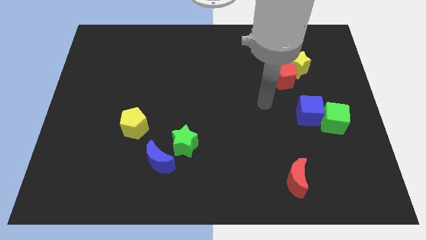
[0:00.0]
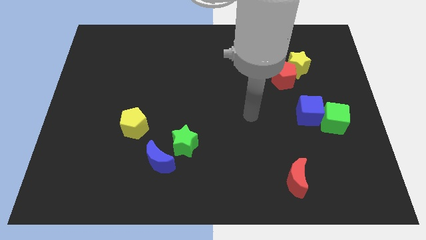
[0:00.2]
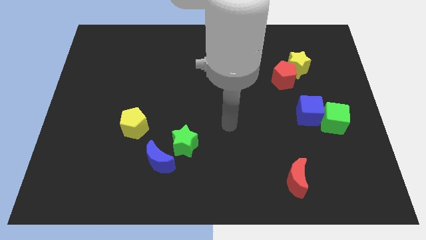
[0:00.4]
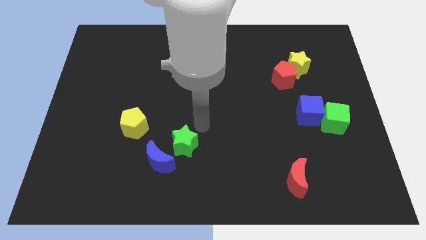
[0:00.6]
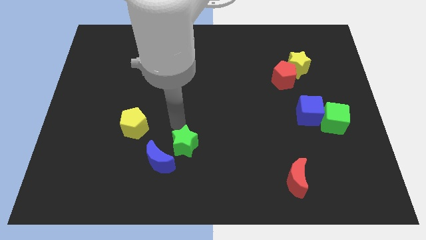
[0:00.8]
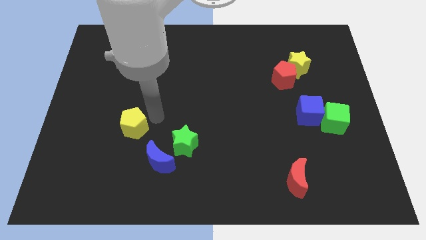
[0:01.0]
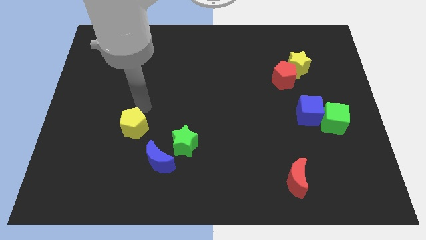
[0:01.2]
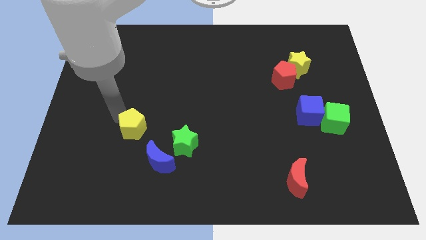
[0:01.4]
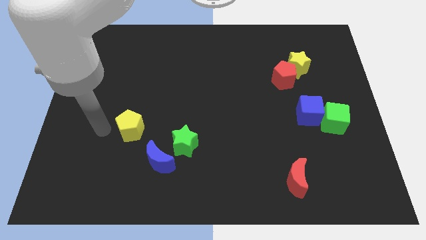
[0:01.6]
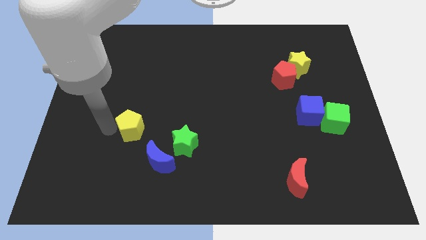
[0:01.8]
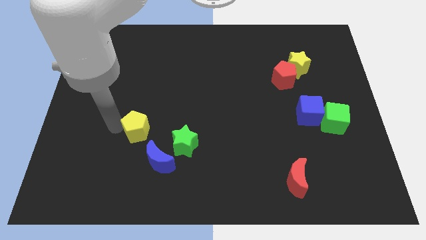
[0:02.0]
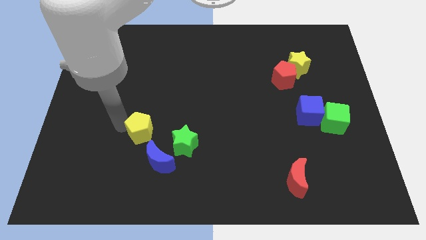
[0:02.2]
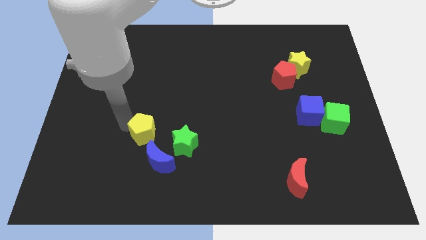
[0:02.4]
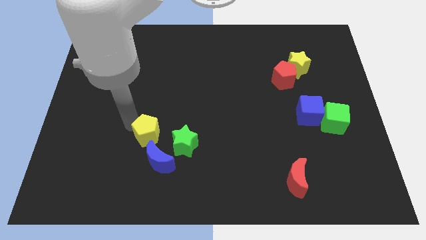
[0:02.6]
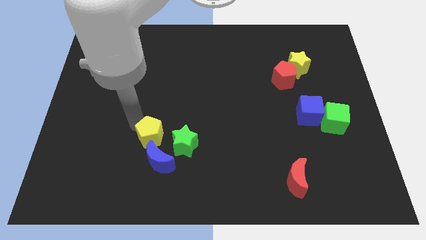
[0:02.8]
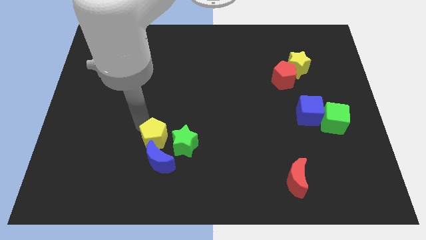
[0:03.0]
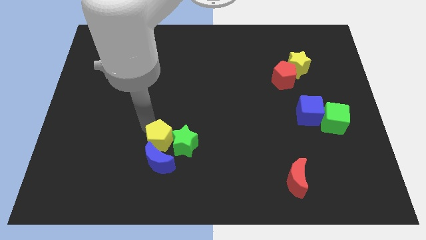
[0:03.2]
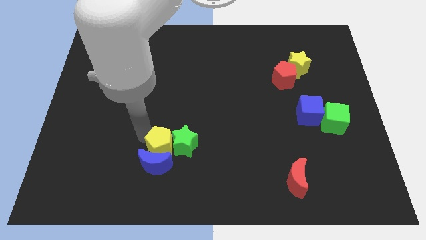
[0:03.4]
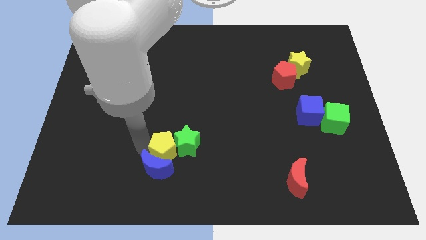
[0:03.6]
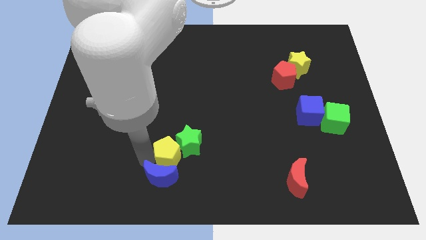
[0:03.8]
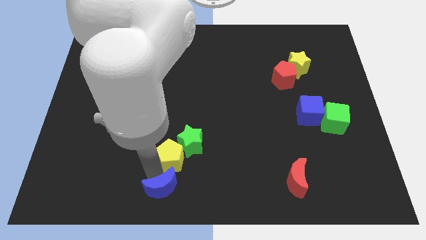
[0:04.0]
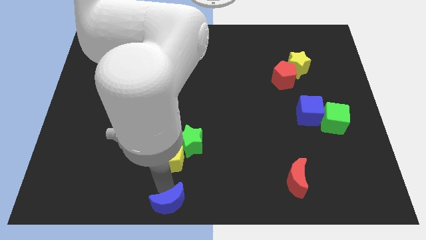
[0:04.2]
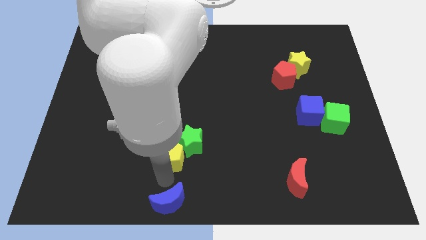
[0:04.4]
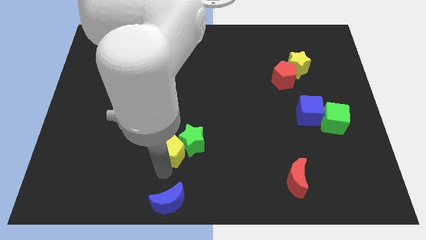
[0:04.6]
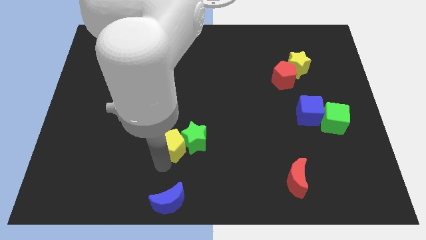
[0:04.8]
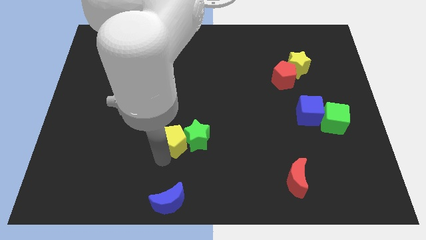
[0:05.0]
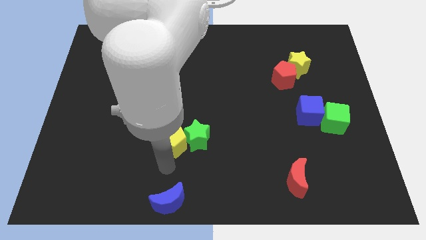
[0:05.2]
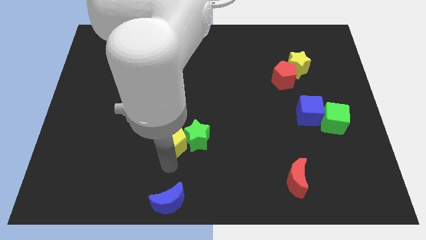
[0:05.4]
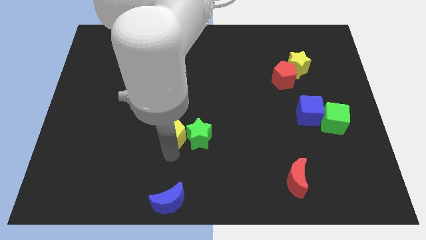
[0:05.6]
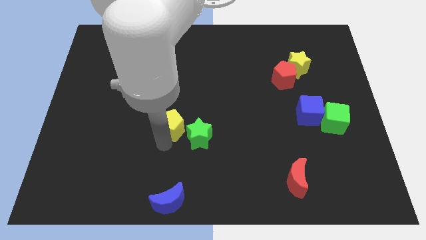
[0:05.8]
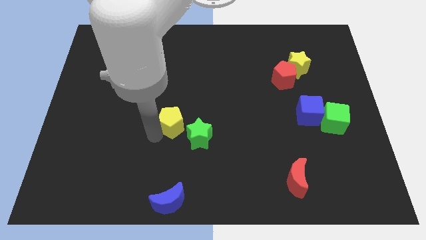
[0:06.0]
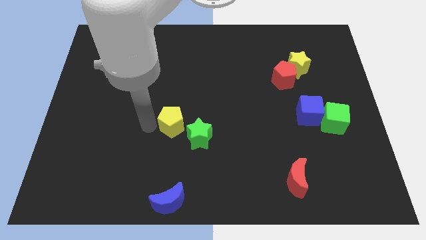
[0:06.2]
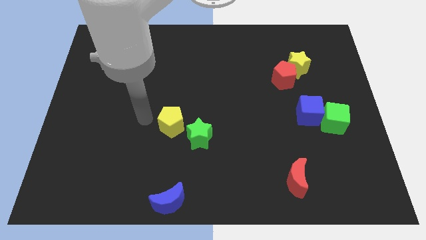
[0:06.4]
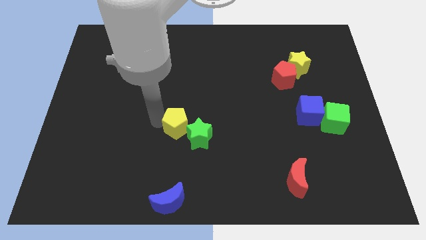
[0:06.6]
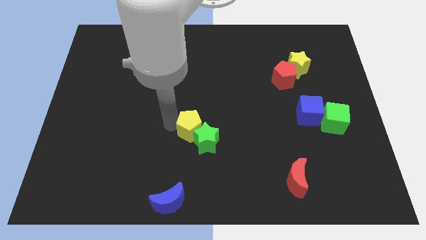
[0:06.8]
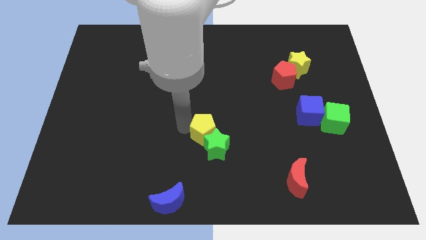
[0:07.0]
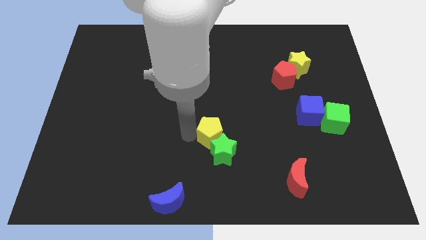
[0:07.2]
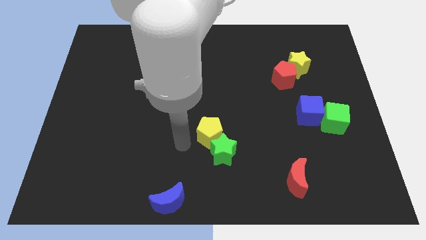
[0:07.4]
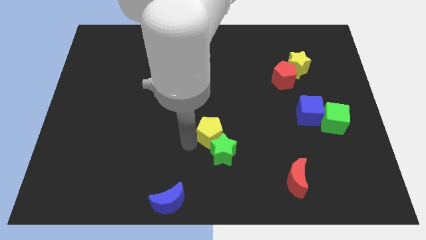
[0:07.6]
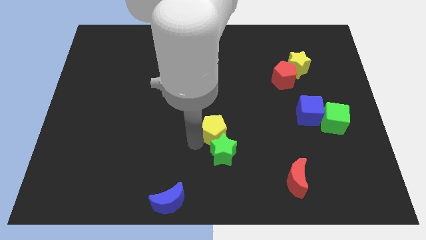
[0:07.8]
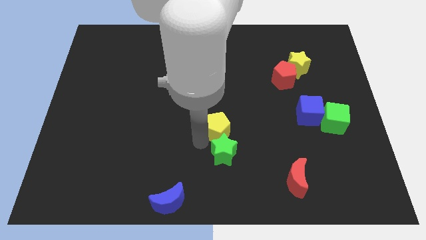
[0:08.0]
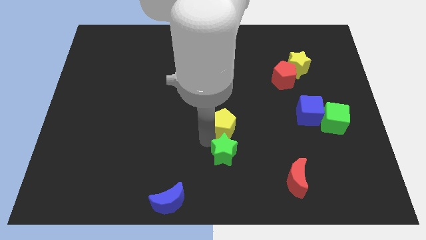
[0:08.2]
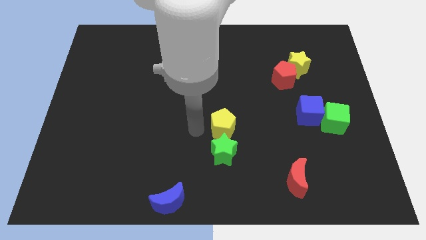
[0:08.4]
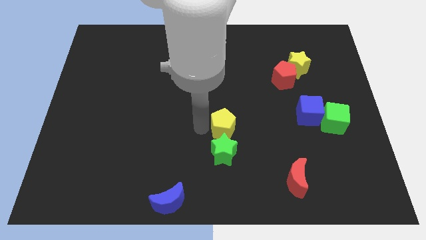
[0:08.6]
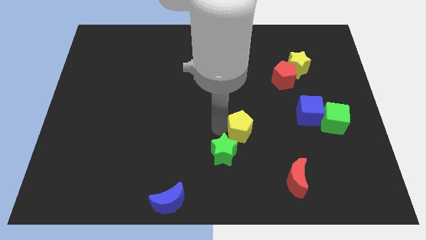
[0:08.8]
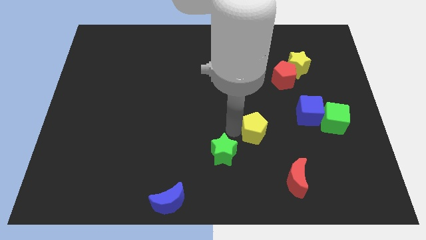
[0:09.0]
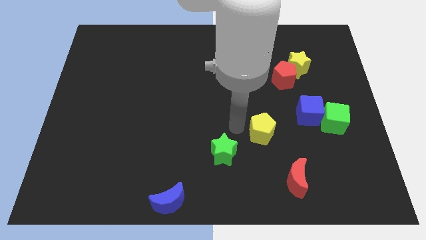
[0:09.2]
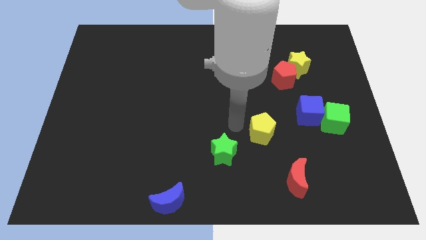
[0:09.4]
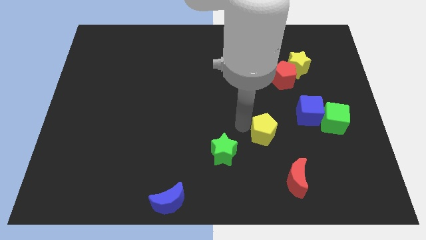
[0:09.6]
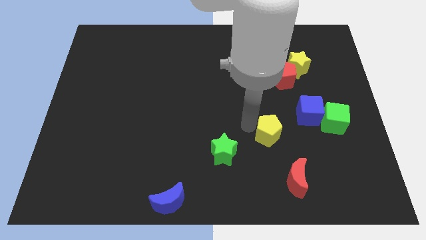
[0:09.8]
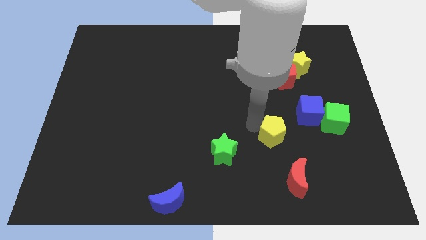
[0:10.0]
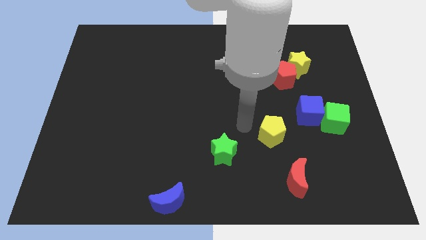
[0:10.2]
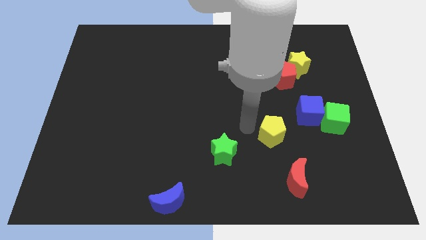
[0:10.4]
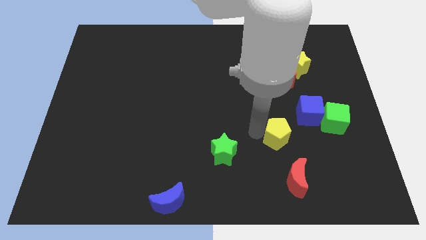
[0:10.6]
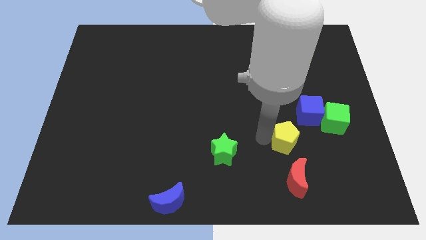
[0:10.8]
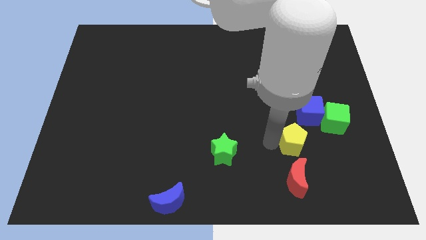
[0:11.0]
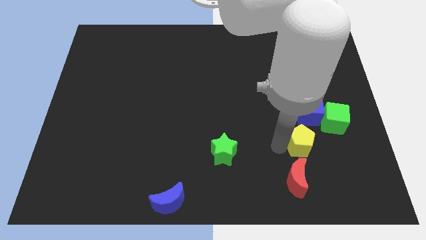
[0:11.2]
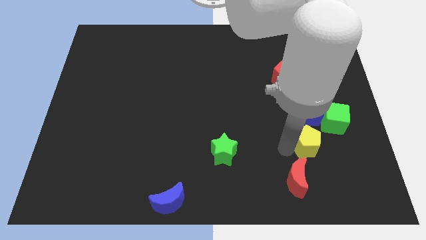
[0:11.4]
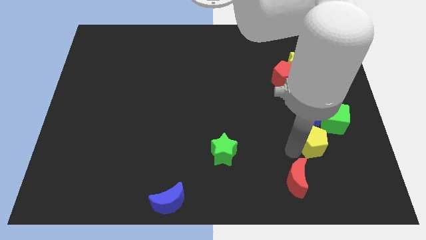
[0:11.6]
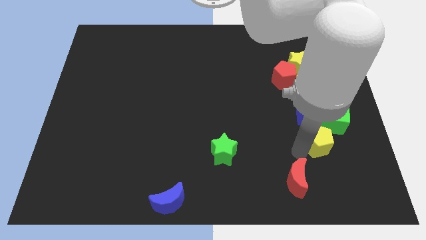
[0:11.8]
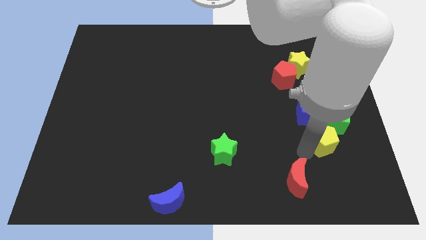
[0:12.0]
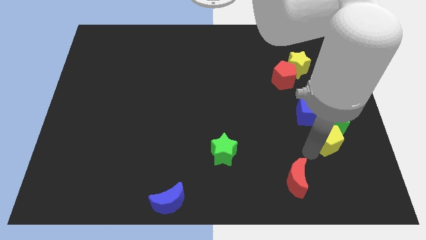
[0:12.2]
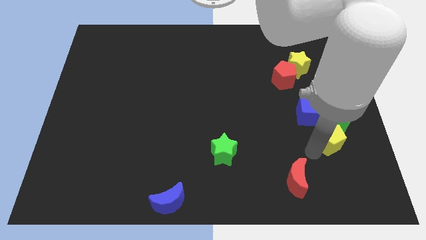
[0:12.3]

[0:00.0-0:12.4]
move the yellow pentagon towards the green cube

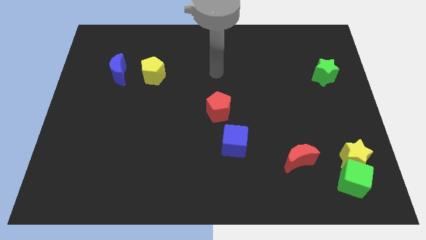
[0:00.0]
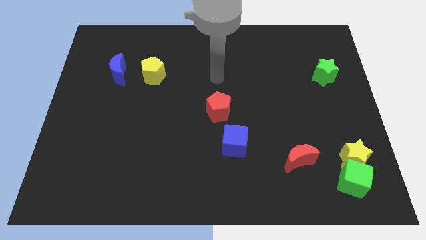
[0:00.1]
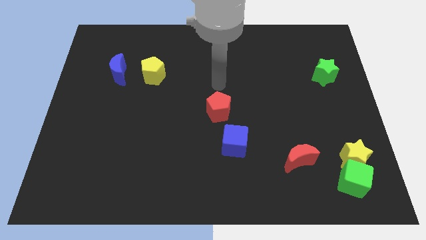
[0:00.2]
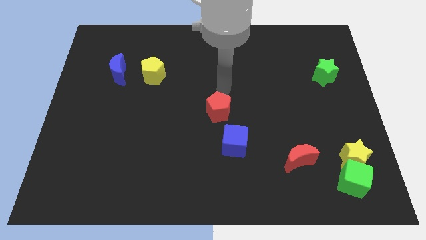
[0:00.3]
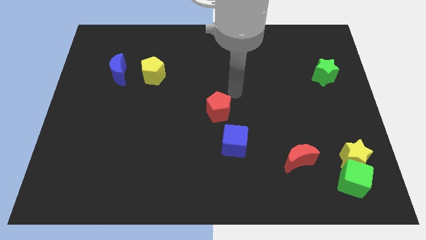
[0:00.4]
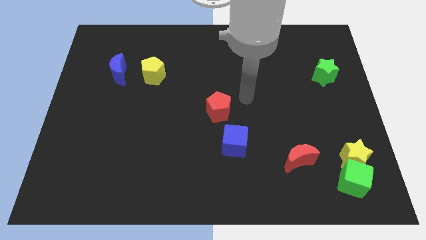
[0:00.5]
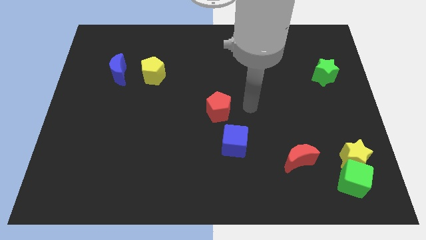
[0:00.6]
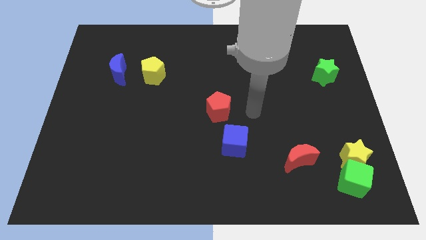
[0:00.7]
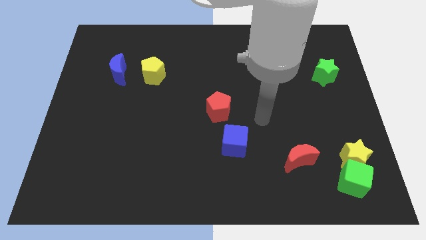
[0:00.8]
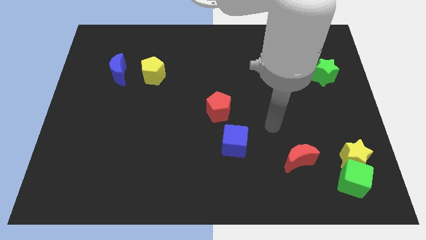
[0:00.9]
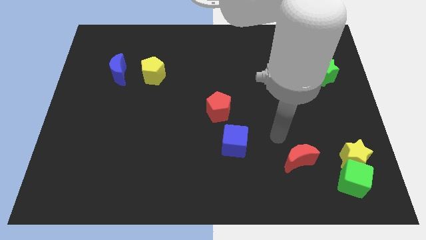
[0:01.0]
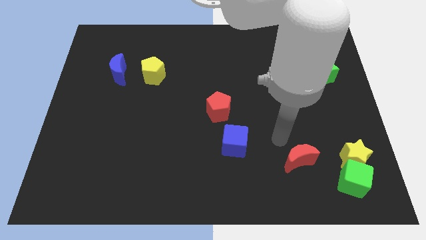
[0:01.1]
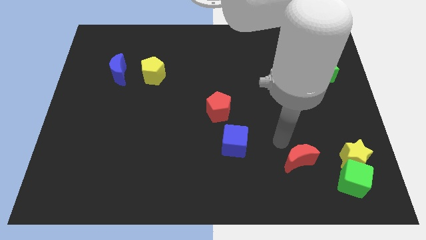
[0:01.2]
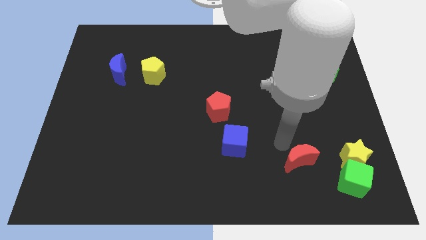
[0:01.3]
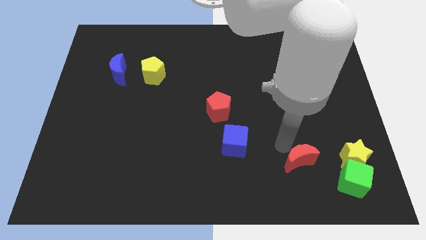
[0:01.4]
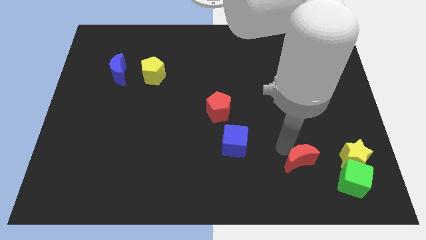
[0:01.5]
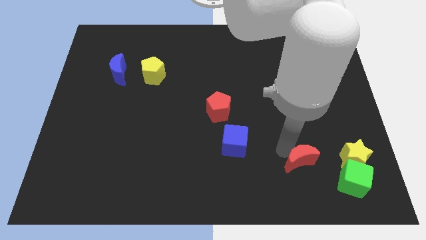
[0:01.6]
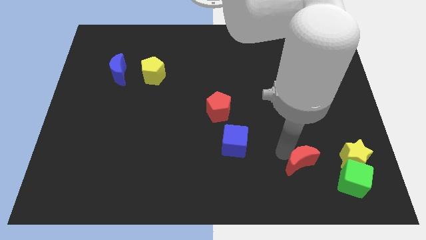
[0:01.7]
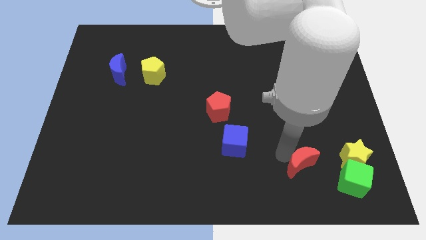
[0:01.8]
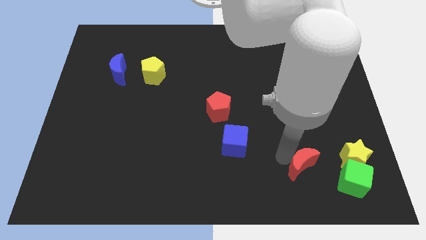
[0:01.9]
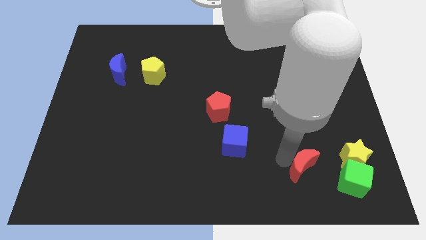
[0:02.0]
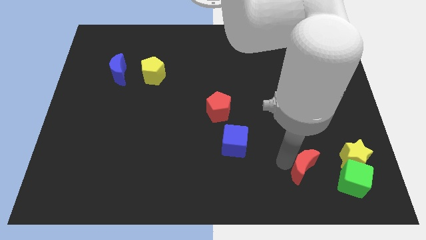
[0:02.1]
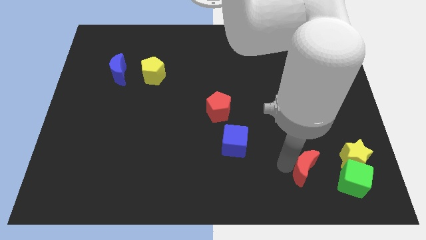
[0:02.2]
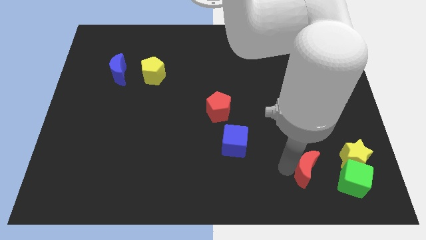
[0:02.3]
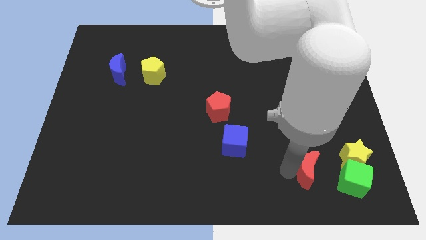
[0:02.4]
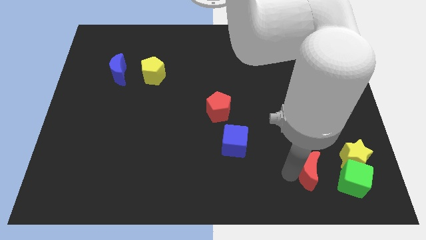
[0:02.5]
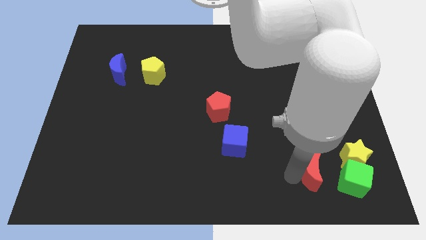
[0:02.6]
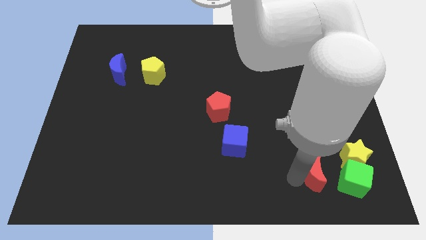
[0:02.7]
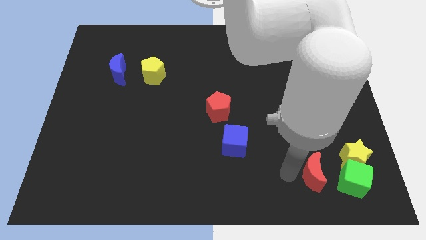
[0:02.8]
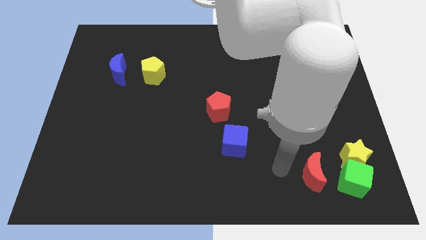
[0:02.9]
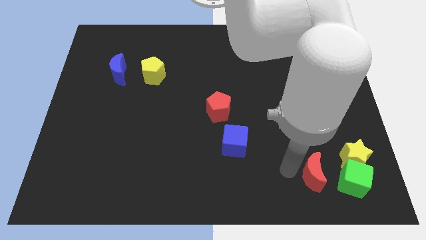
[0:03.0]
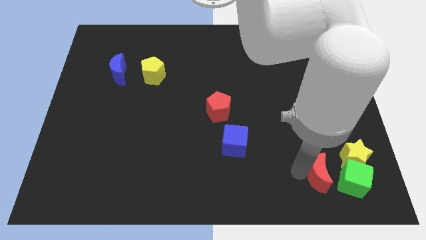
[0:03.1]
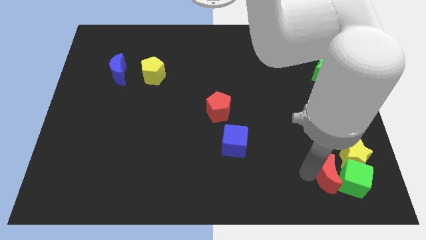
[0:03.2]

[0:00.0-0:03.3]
slide the red moon next to the green cube
